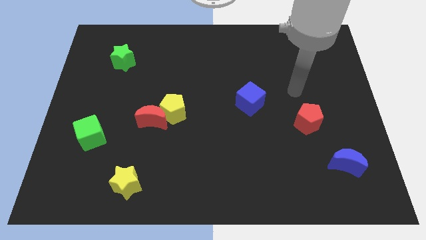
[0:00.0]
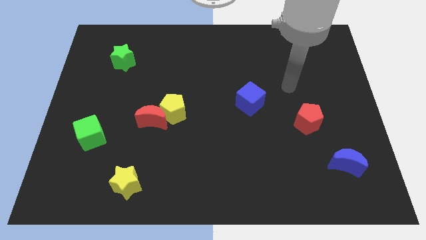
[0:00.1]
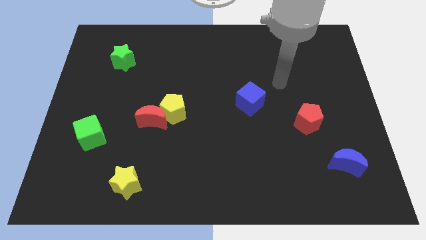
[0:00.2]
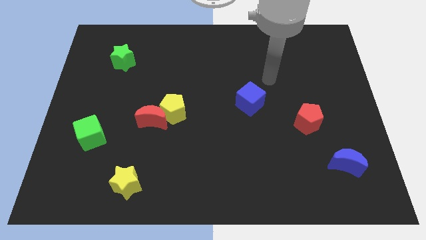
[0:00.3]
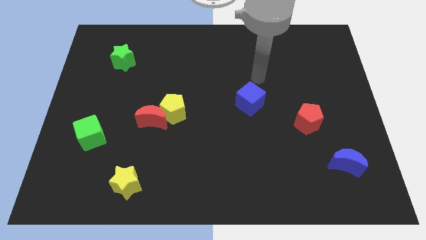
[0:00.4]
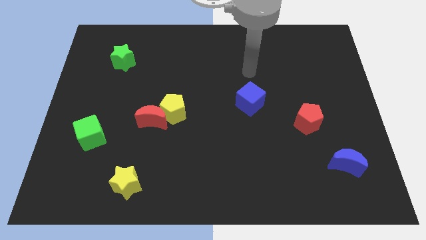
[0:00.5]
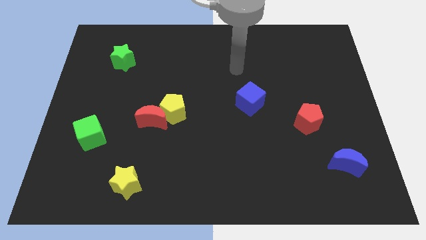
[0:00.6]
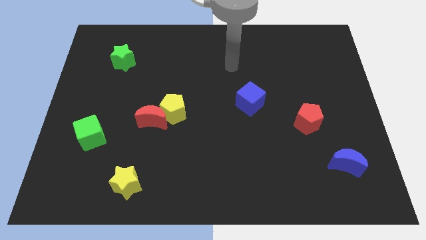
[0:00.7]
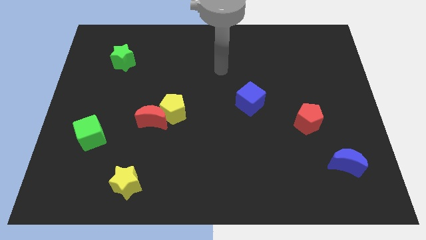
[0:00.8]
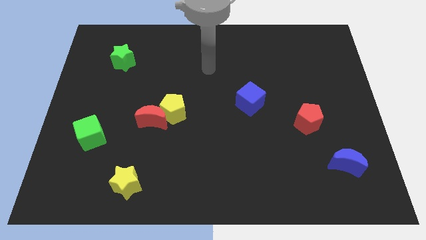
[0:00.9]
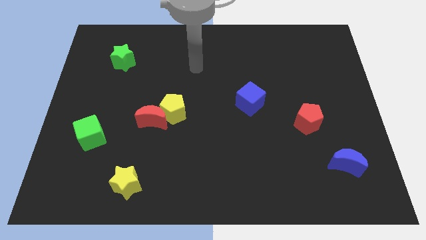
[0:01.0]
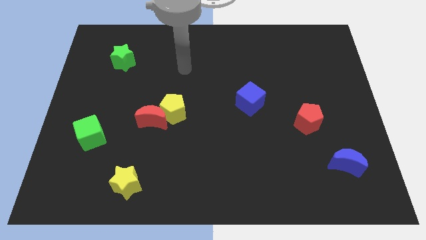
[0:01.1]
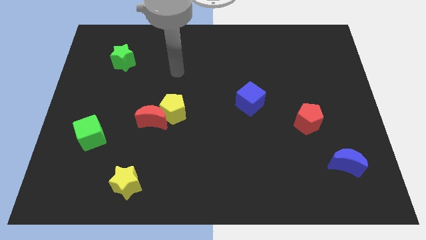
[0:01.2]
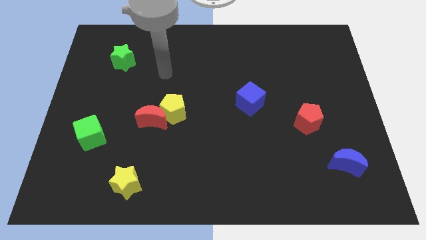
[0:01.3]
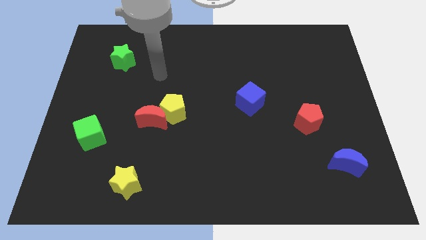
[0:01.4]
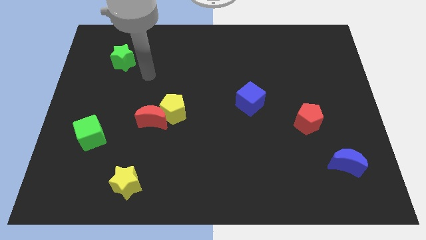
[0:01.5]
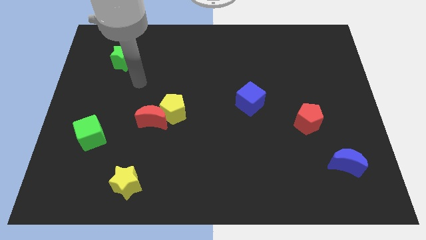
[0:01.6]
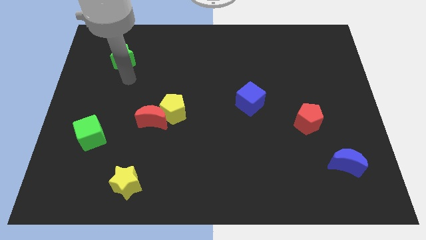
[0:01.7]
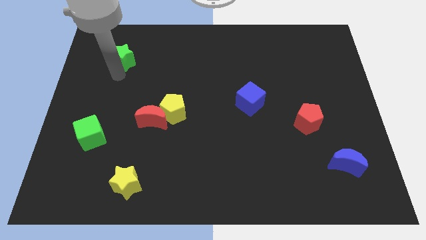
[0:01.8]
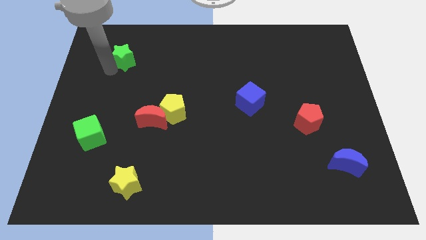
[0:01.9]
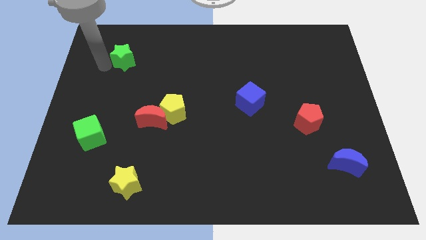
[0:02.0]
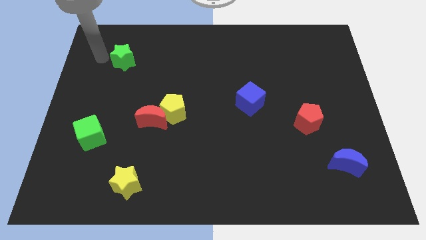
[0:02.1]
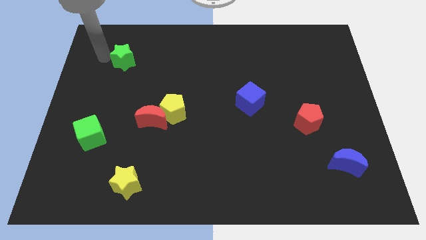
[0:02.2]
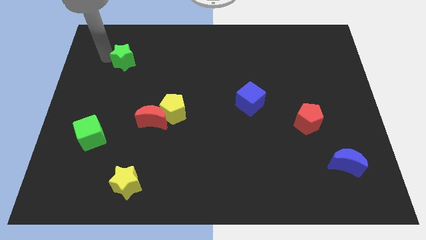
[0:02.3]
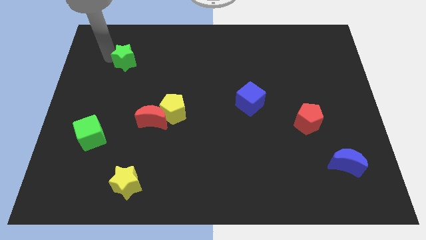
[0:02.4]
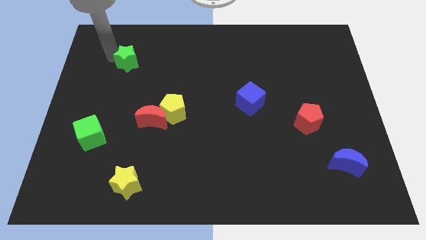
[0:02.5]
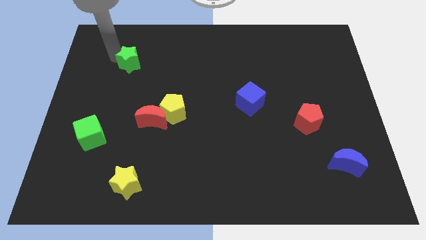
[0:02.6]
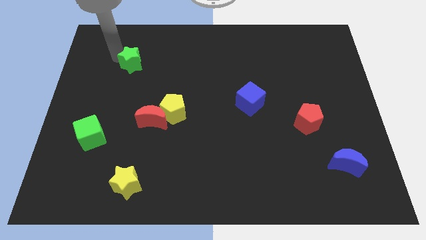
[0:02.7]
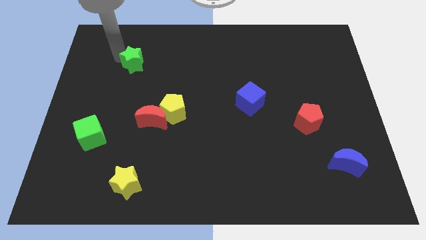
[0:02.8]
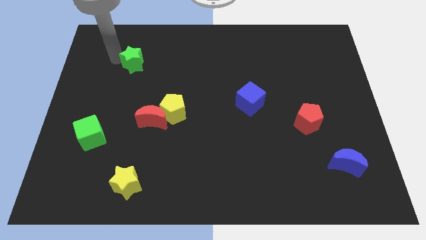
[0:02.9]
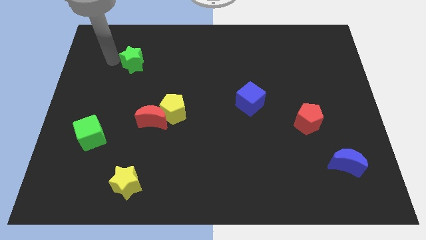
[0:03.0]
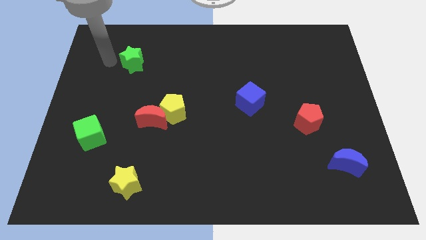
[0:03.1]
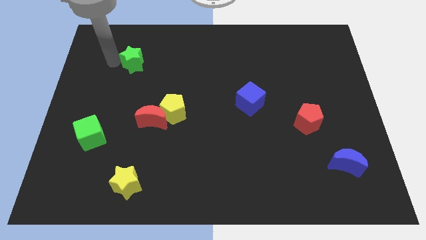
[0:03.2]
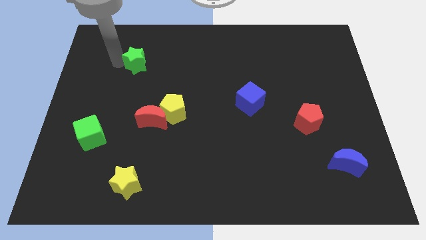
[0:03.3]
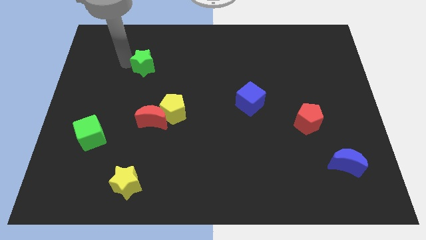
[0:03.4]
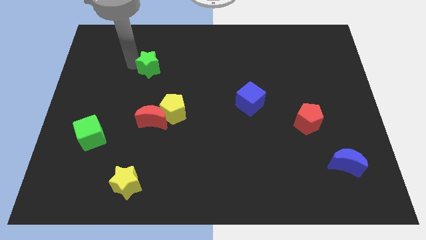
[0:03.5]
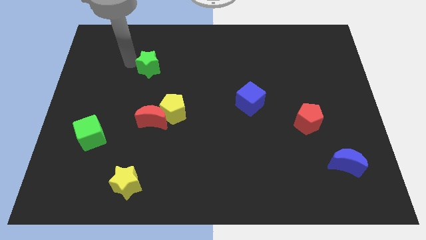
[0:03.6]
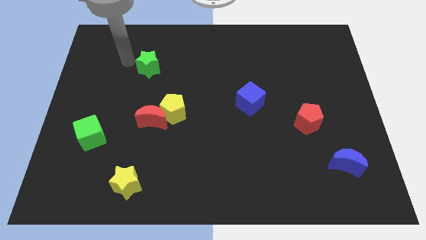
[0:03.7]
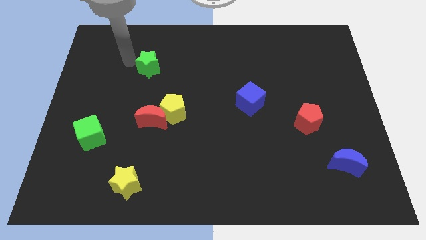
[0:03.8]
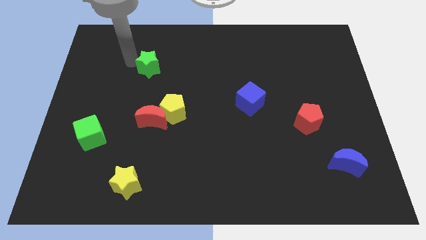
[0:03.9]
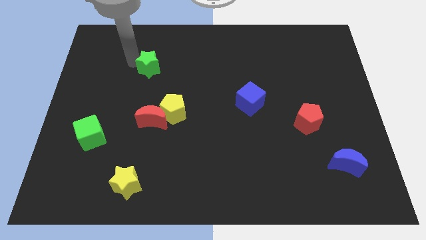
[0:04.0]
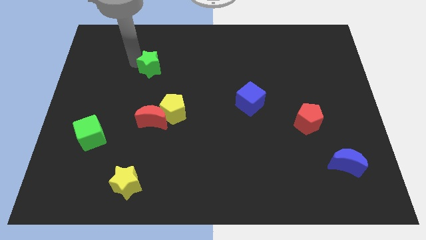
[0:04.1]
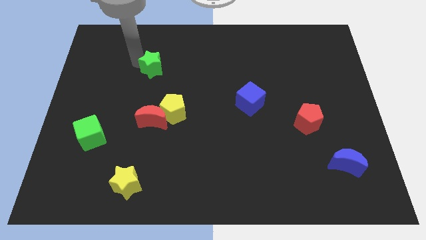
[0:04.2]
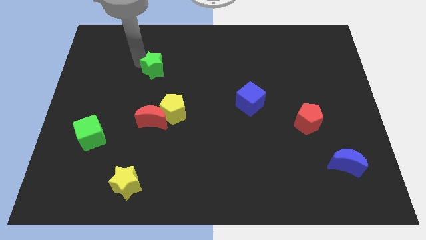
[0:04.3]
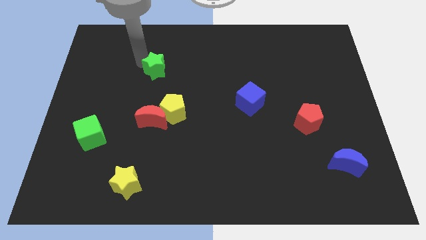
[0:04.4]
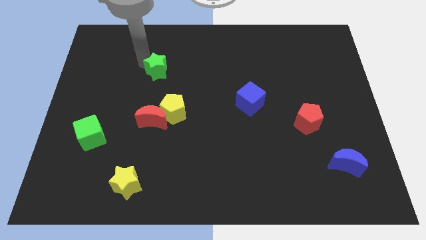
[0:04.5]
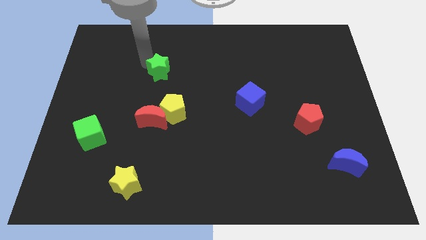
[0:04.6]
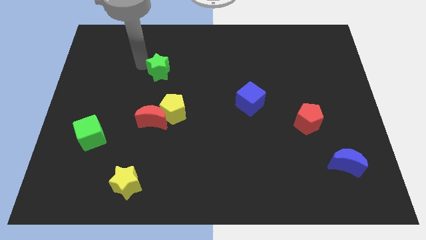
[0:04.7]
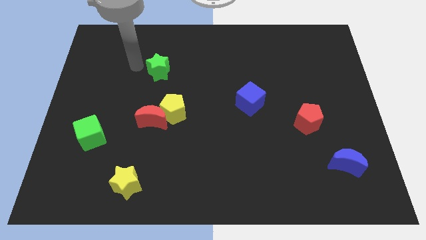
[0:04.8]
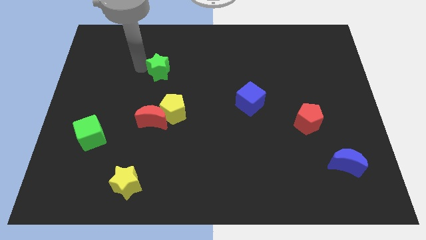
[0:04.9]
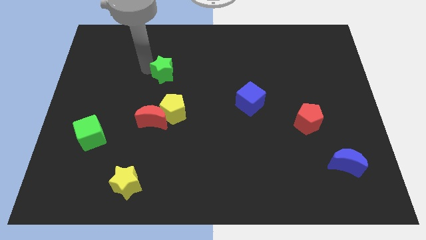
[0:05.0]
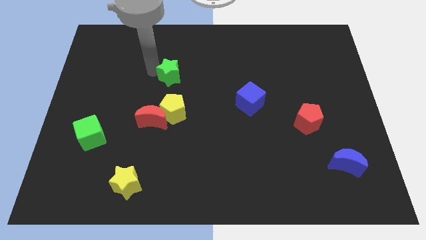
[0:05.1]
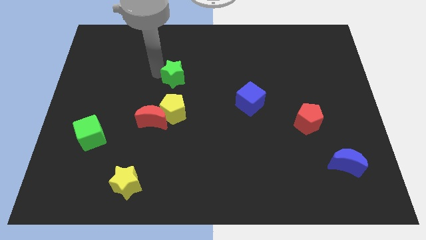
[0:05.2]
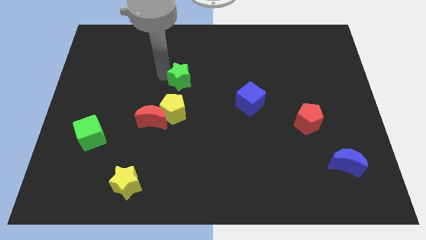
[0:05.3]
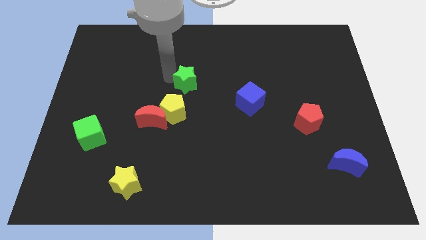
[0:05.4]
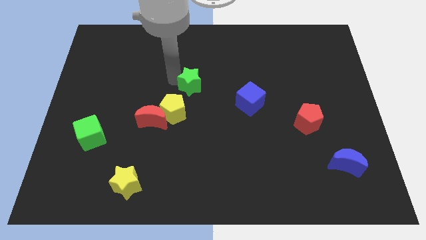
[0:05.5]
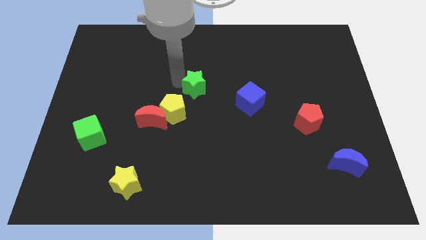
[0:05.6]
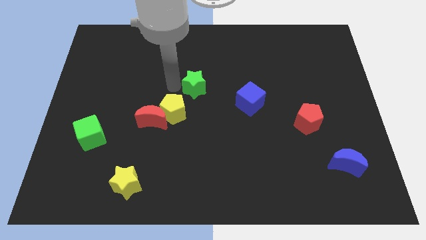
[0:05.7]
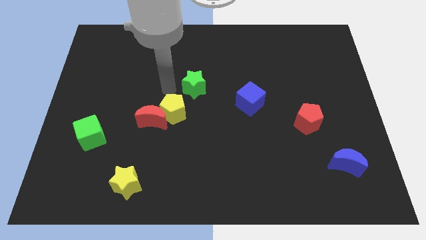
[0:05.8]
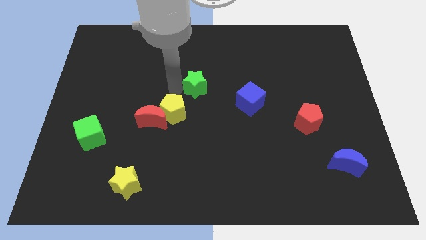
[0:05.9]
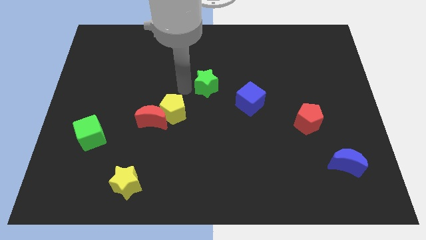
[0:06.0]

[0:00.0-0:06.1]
move the green star to the top left side of the blue cube

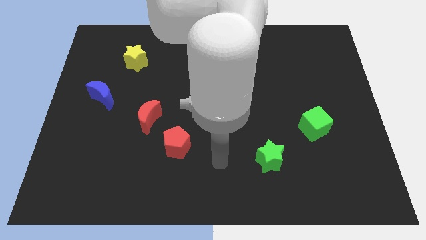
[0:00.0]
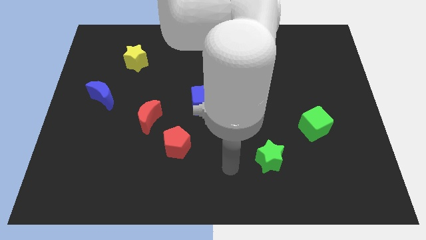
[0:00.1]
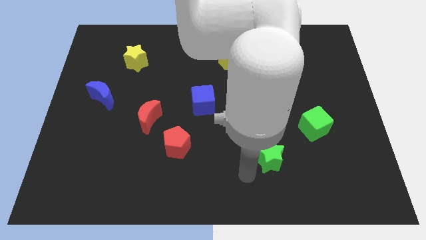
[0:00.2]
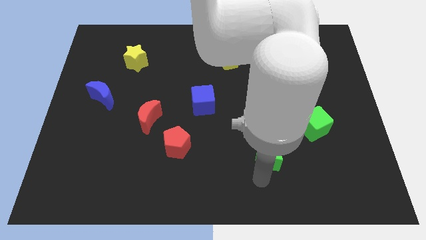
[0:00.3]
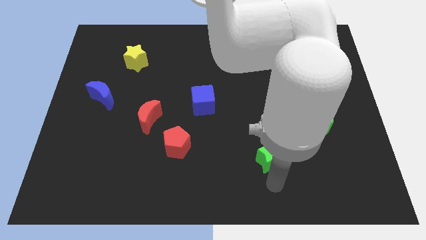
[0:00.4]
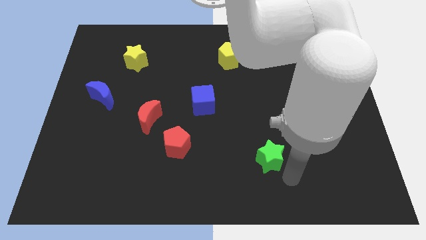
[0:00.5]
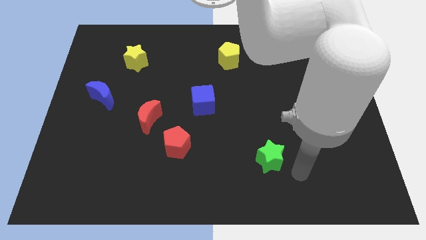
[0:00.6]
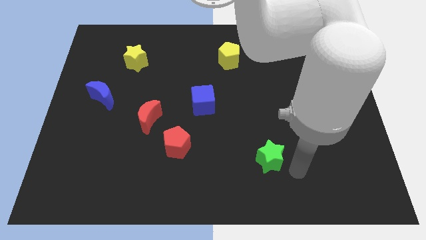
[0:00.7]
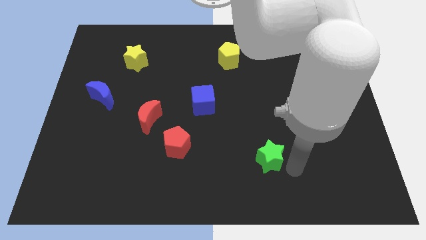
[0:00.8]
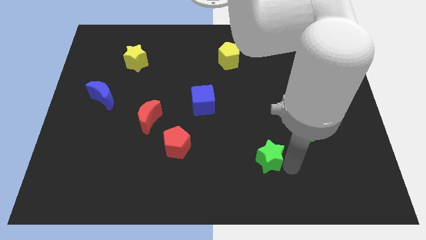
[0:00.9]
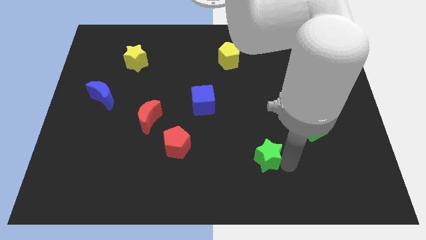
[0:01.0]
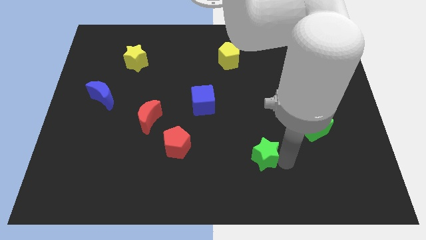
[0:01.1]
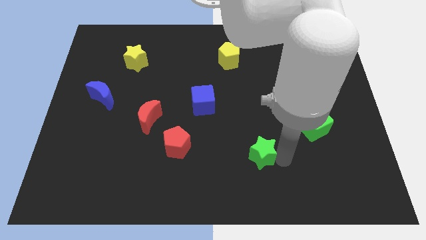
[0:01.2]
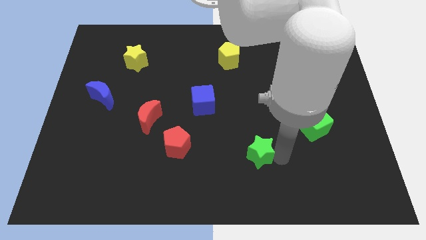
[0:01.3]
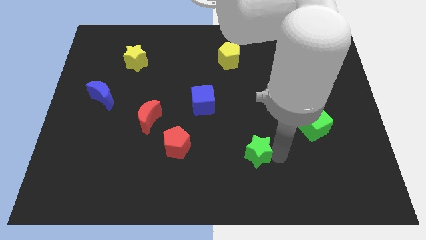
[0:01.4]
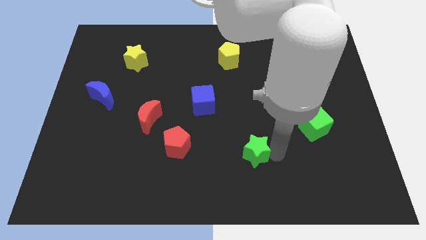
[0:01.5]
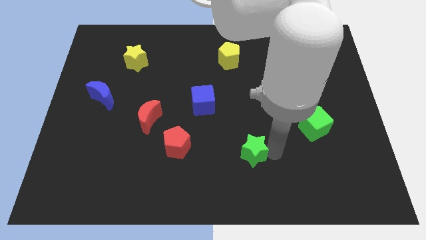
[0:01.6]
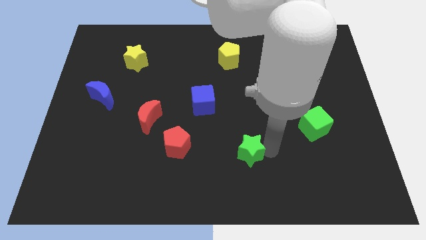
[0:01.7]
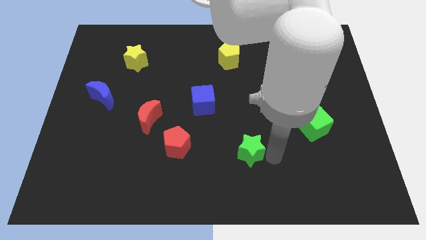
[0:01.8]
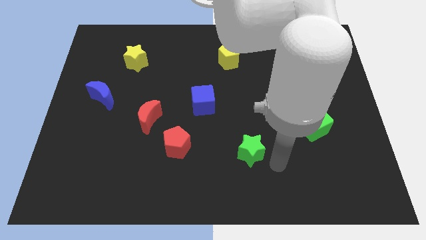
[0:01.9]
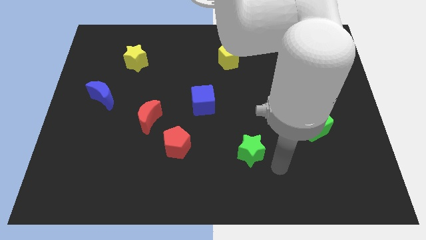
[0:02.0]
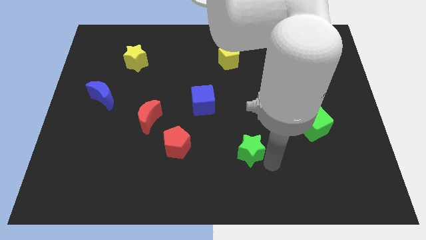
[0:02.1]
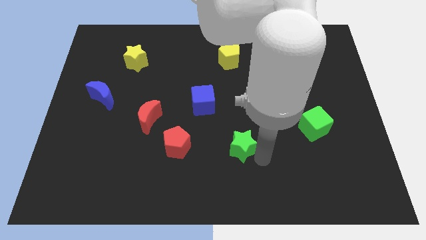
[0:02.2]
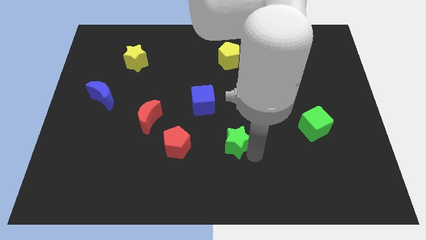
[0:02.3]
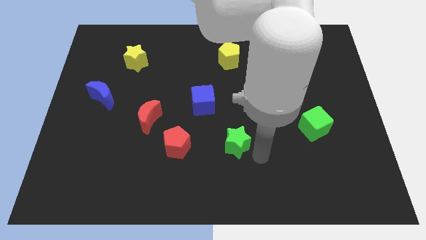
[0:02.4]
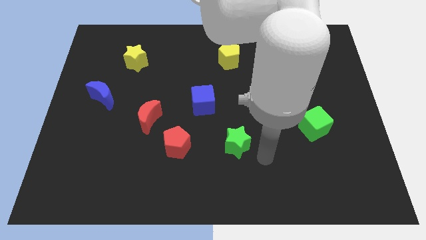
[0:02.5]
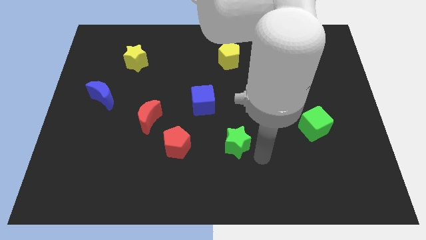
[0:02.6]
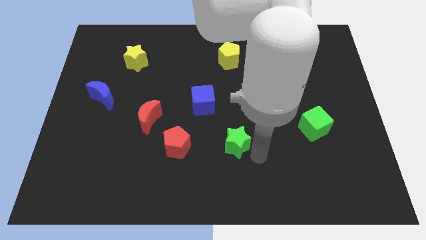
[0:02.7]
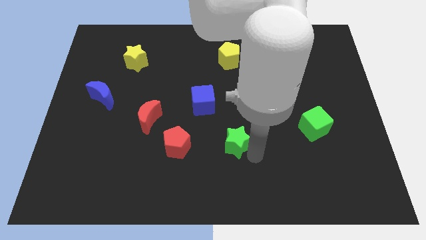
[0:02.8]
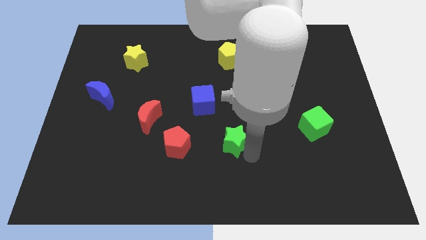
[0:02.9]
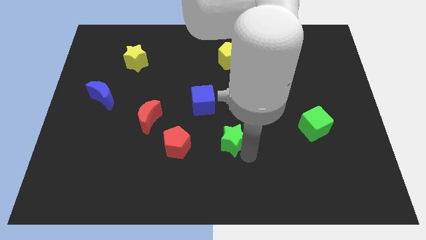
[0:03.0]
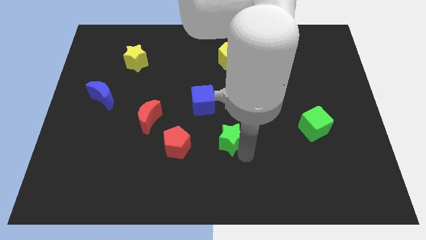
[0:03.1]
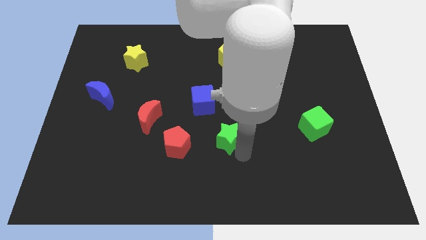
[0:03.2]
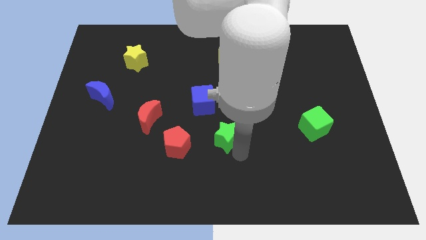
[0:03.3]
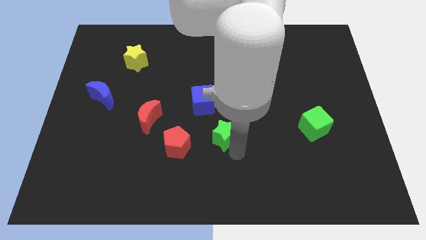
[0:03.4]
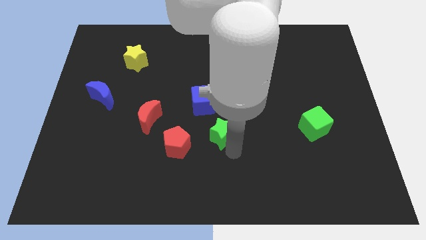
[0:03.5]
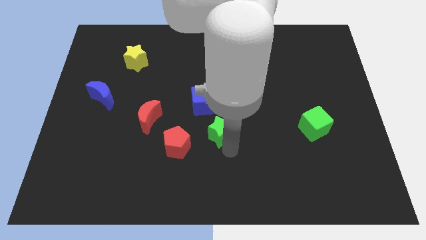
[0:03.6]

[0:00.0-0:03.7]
push the green star to the top right of the red pentagon
